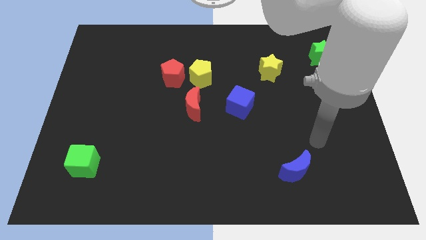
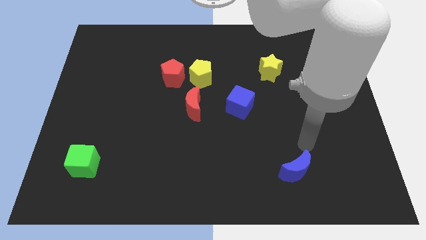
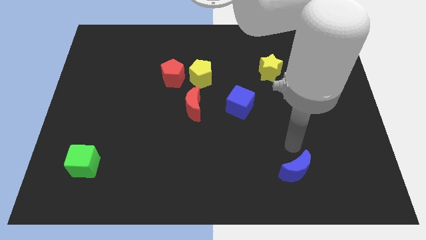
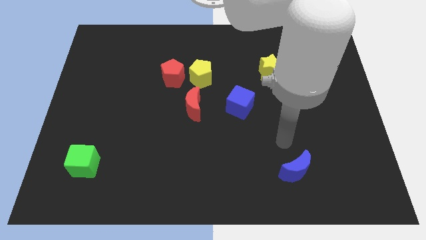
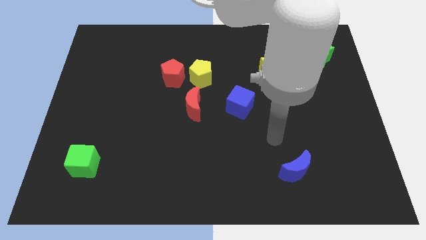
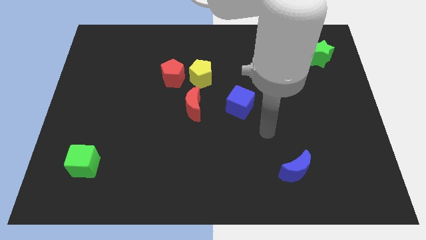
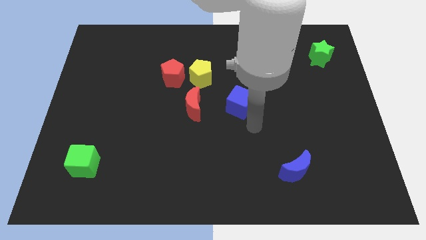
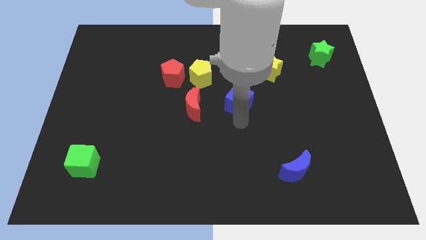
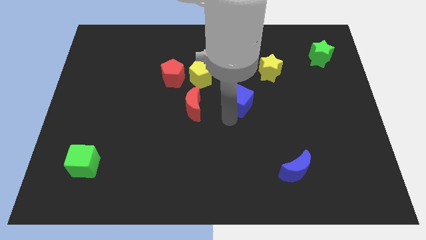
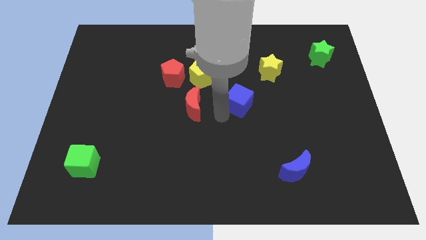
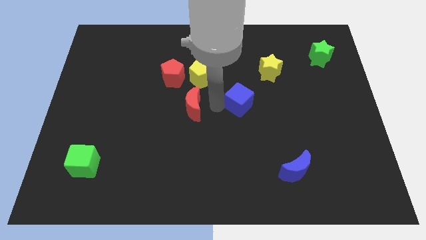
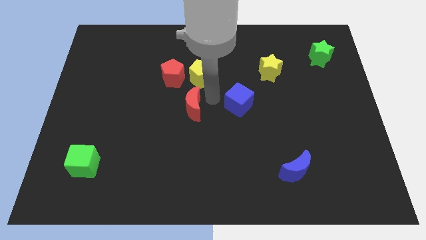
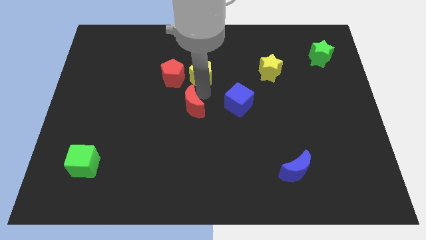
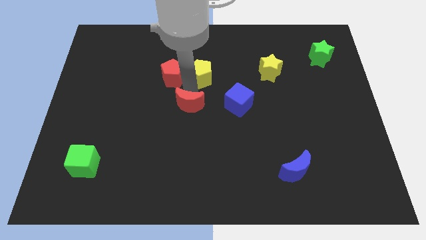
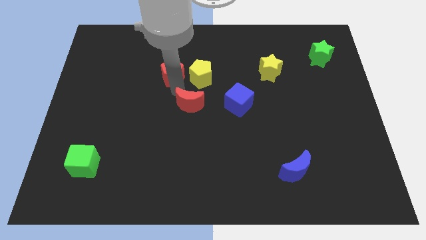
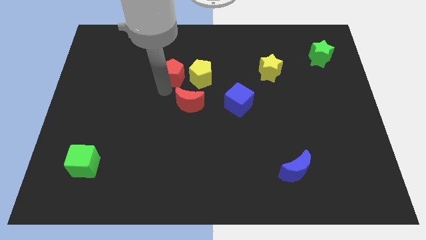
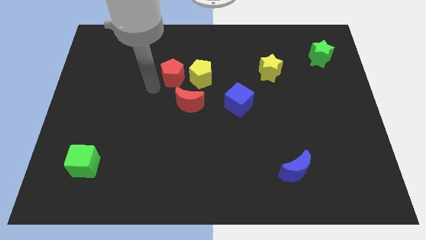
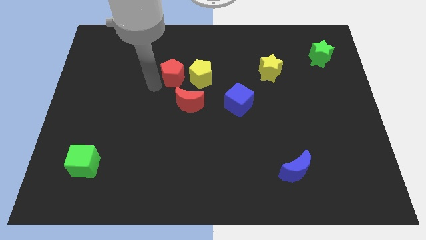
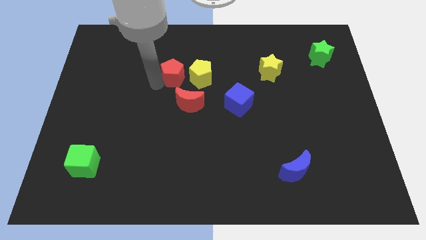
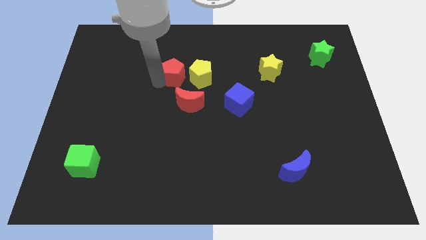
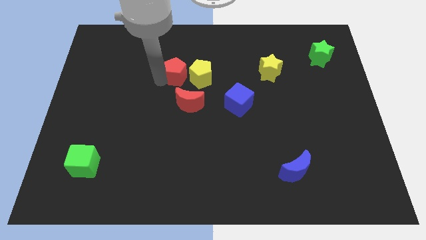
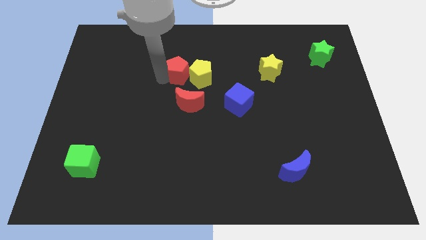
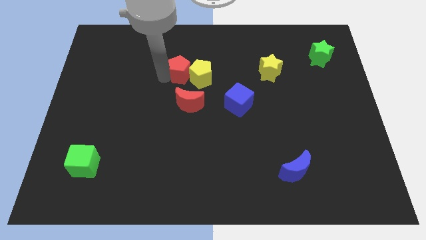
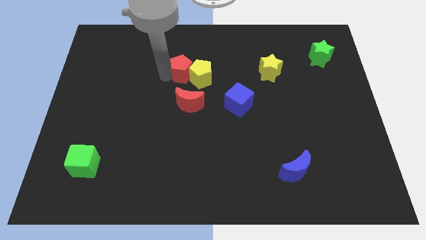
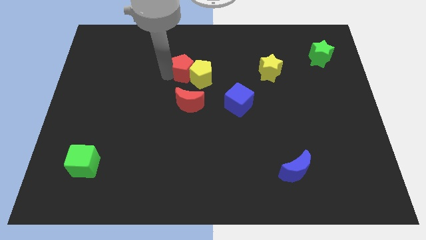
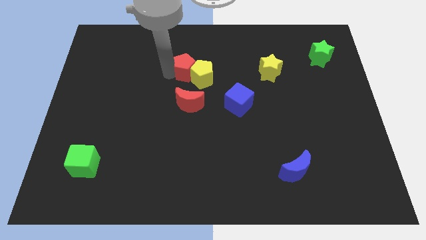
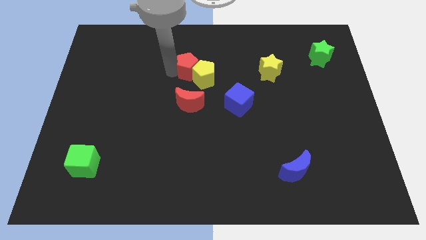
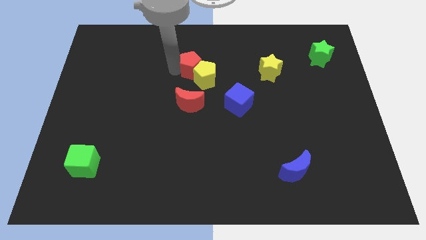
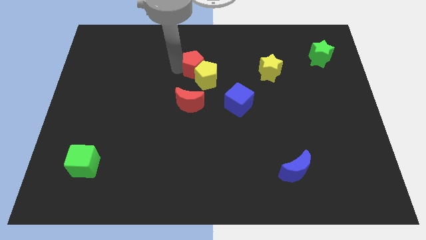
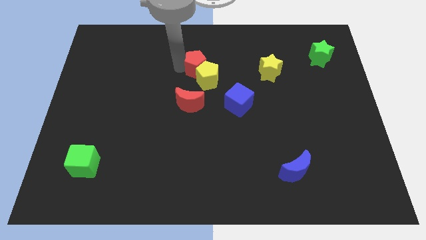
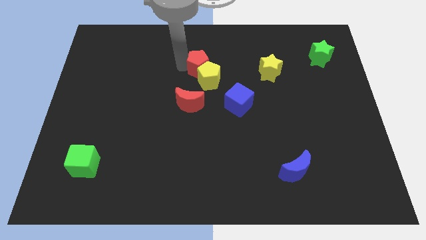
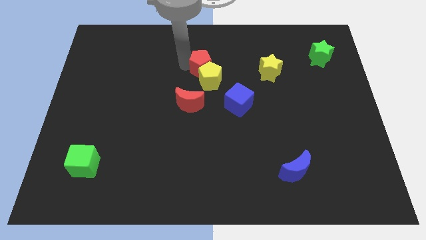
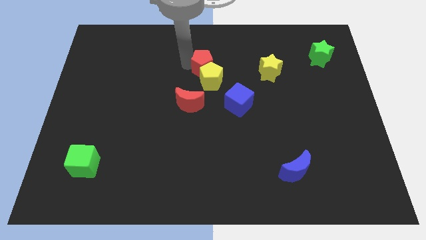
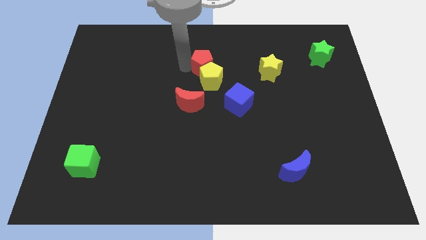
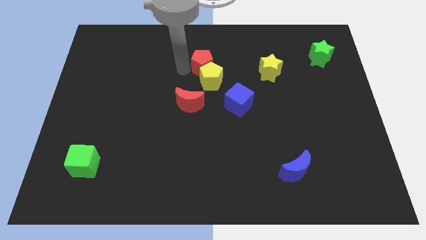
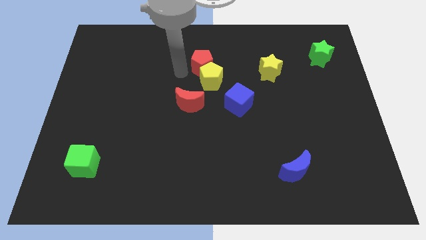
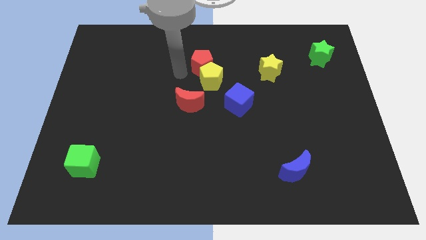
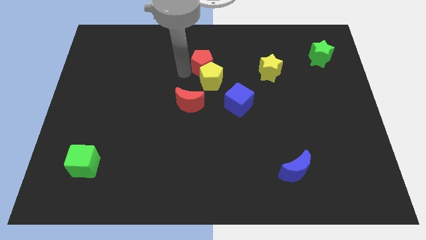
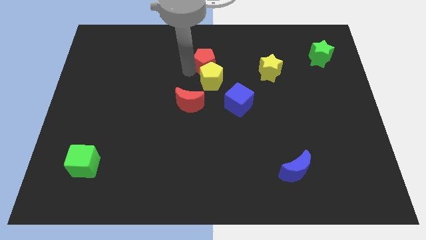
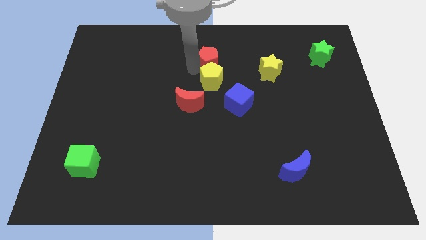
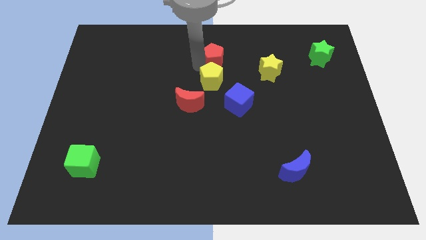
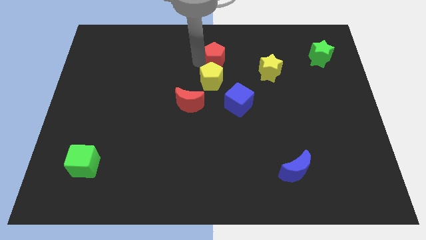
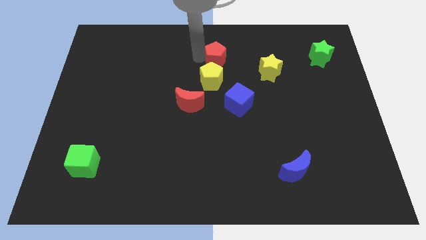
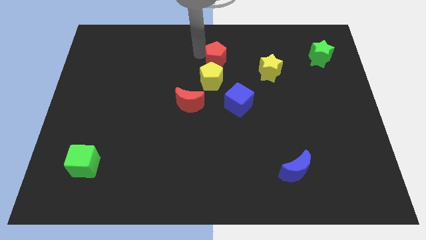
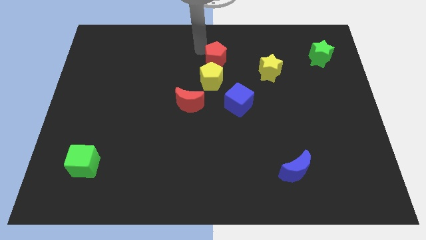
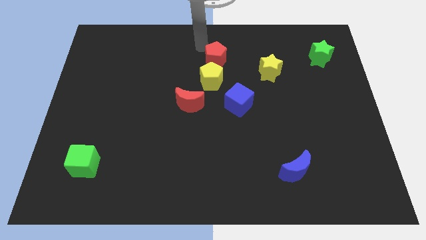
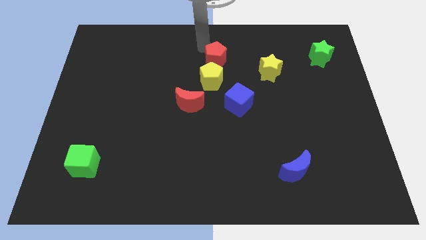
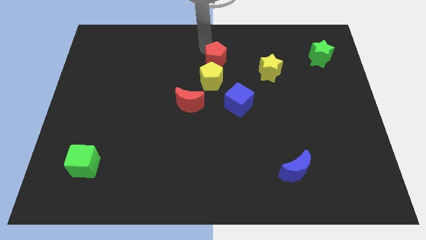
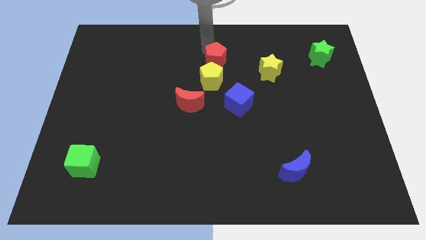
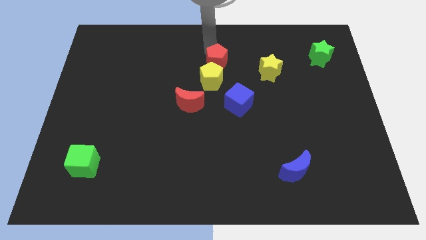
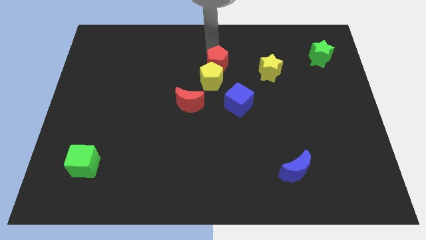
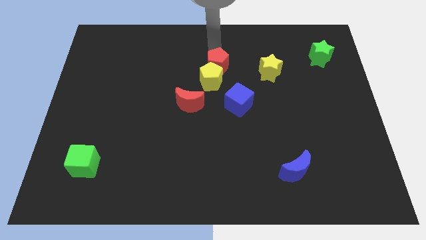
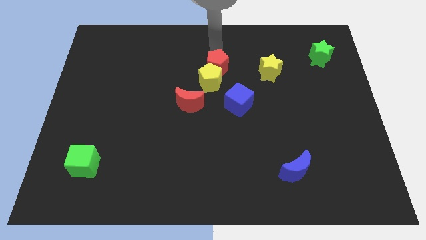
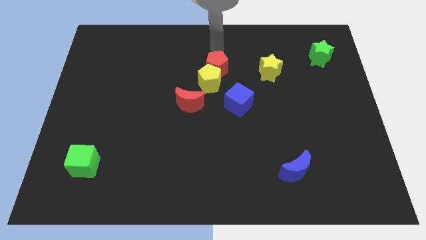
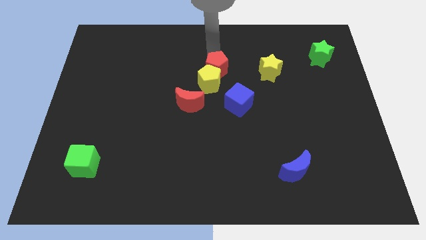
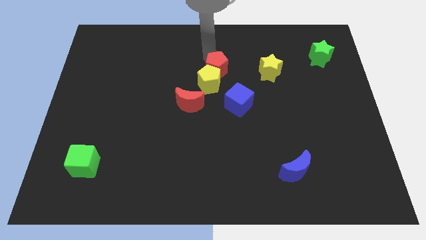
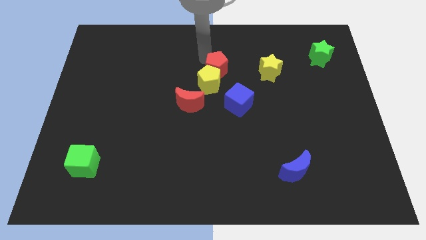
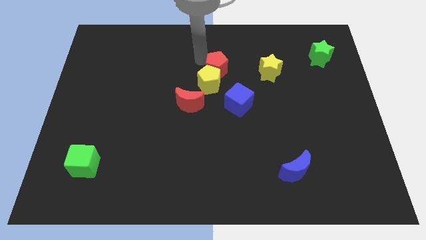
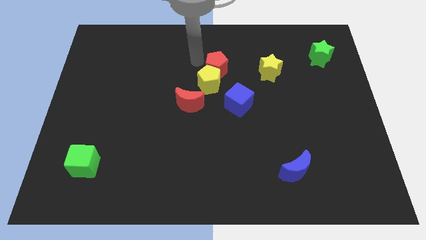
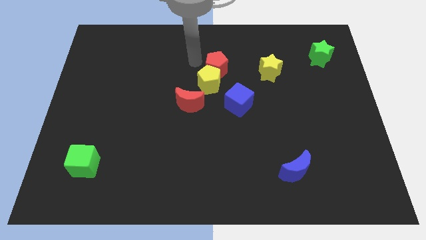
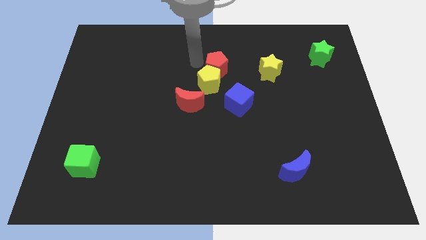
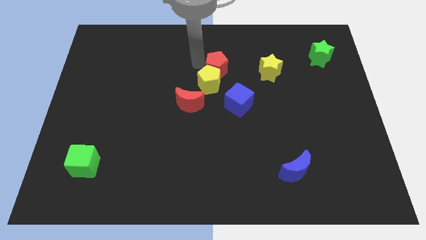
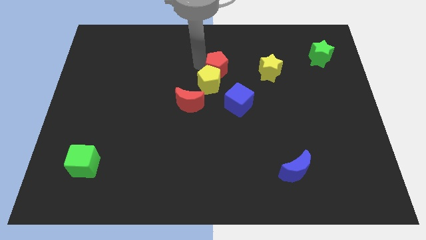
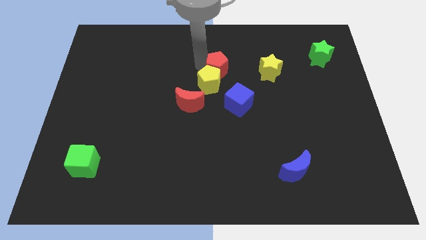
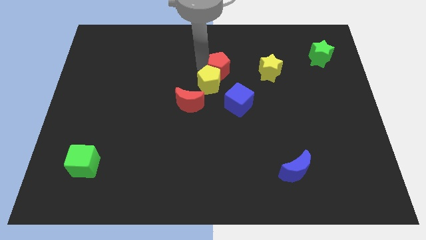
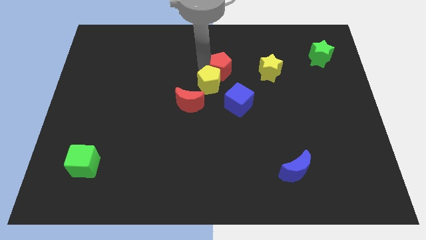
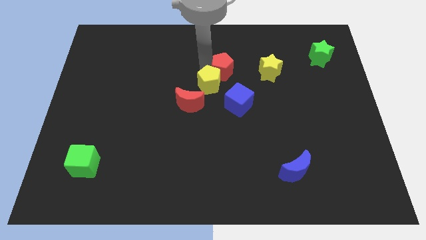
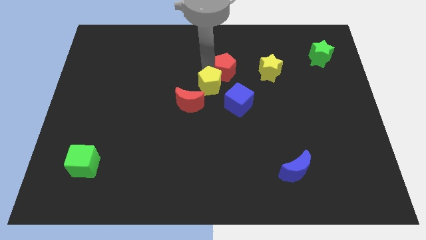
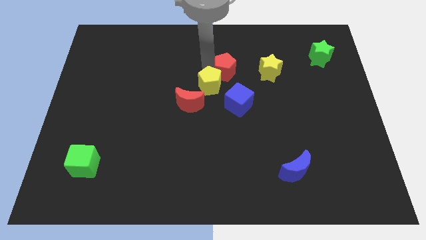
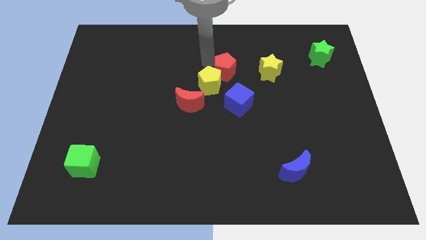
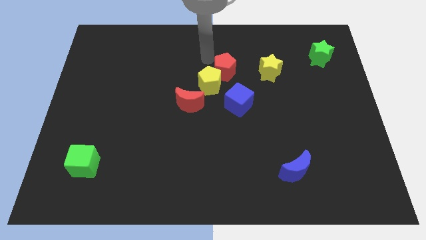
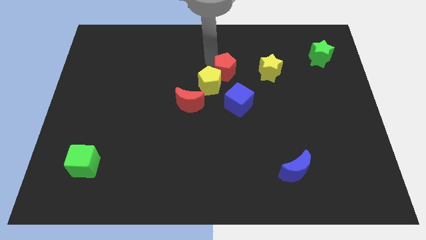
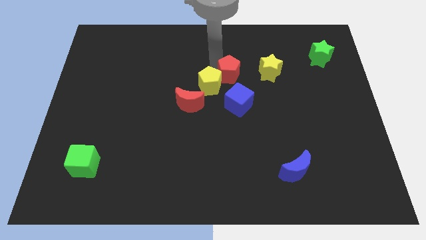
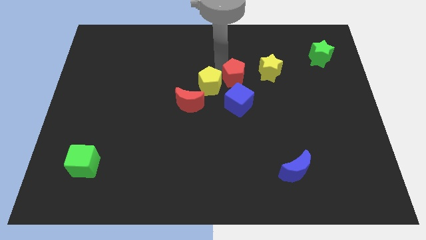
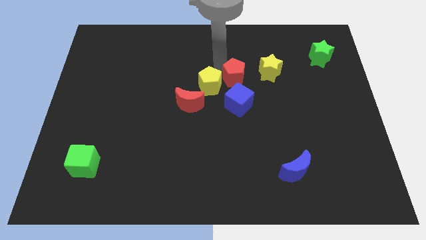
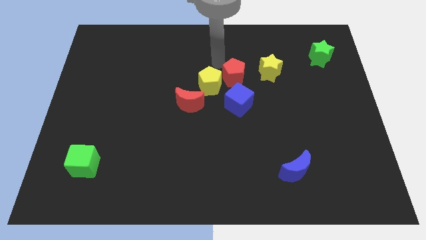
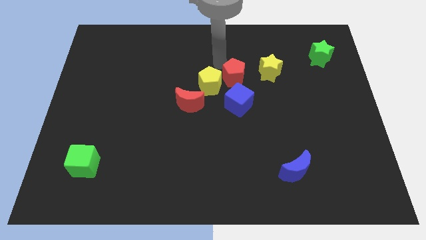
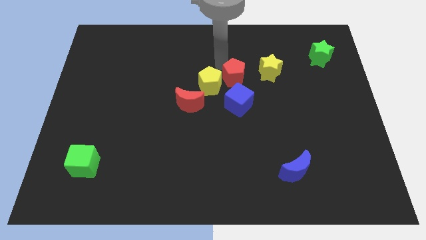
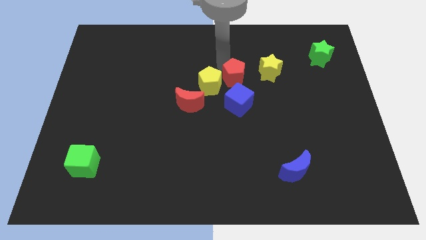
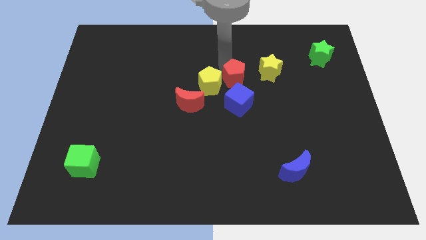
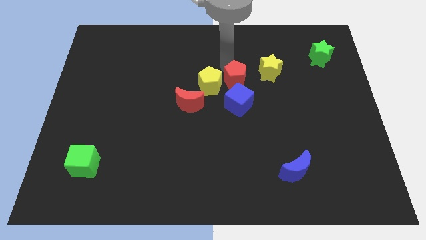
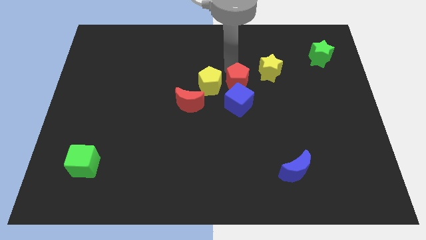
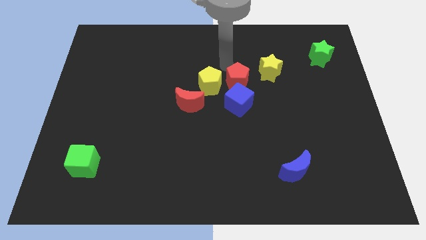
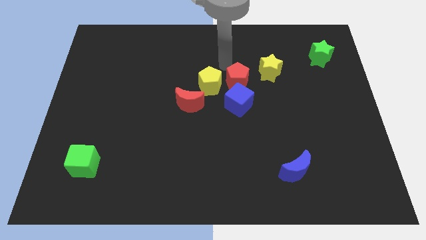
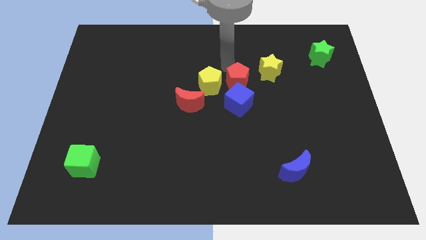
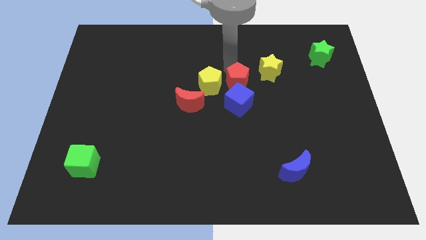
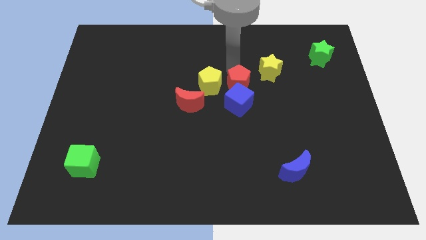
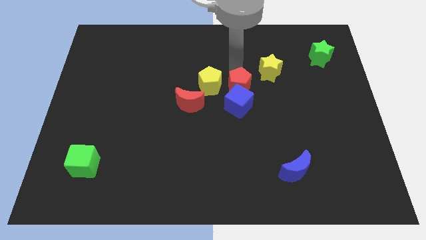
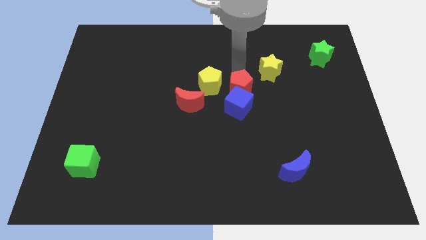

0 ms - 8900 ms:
slide the red pentagon to the right of the red moon
